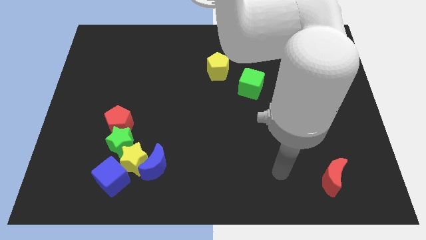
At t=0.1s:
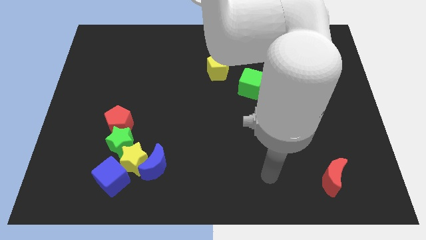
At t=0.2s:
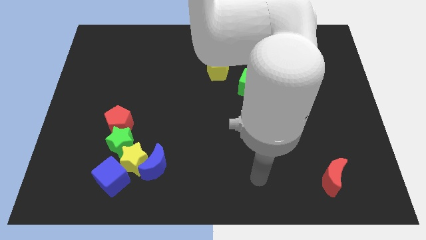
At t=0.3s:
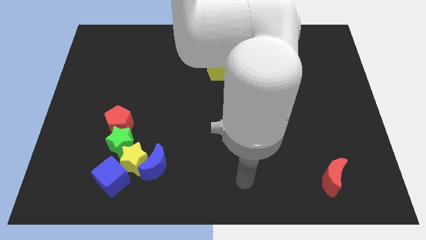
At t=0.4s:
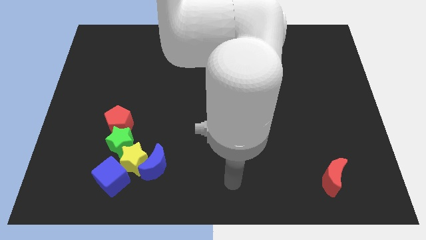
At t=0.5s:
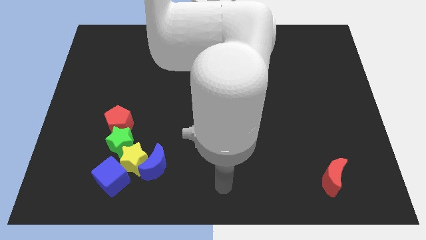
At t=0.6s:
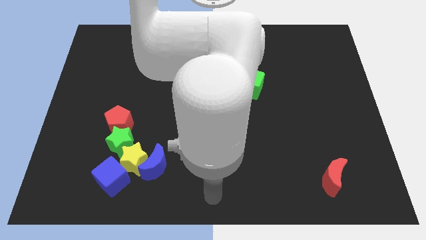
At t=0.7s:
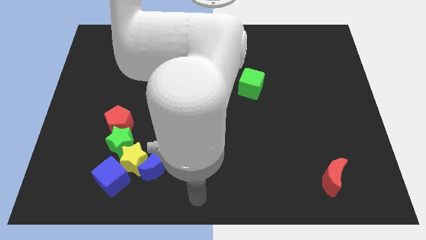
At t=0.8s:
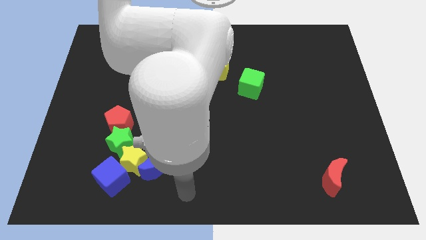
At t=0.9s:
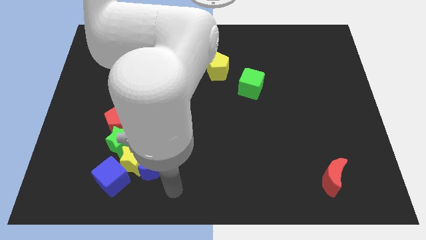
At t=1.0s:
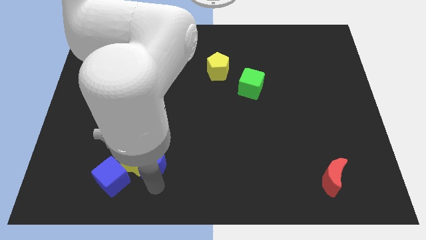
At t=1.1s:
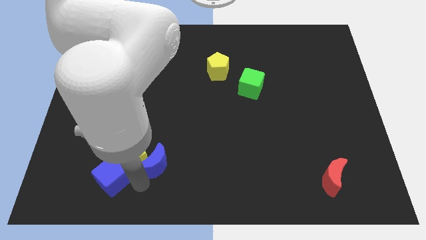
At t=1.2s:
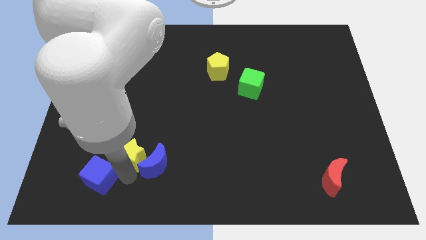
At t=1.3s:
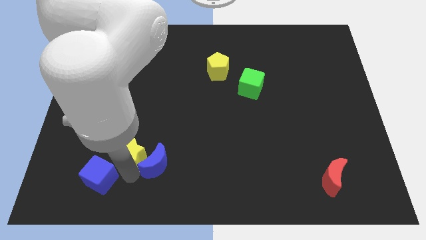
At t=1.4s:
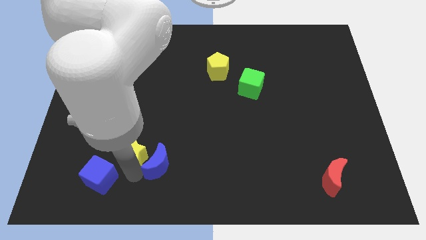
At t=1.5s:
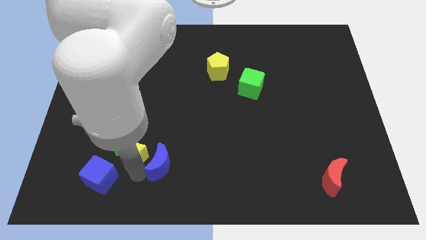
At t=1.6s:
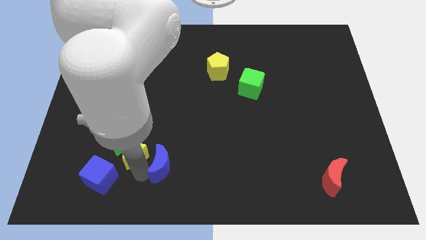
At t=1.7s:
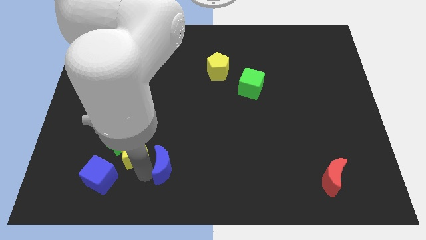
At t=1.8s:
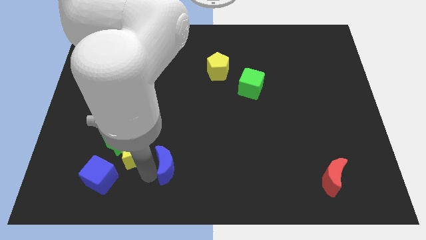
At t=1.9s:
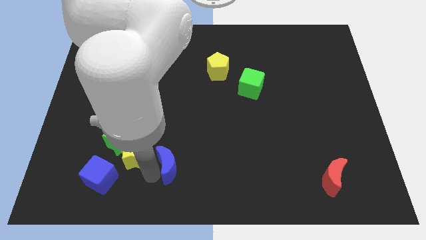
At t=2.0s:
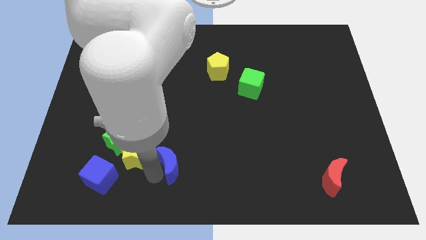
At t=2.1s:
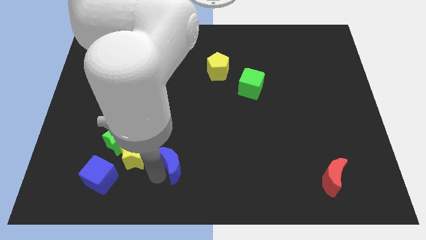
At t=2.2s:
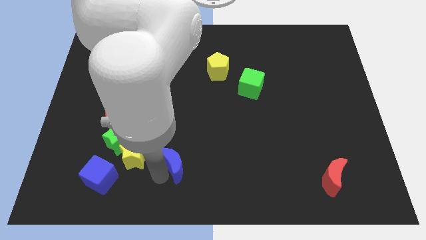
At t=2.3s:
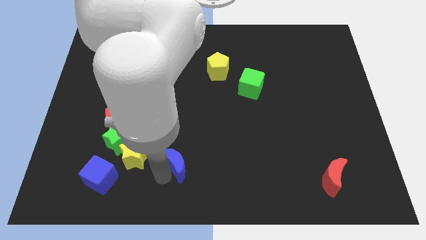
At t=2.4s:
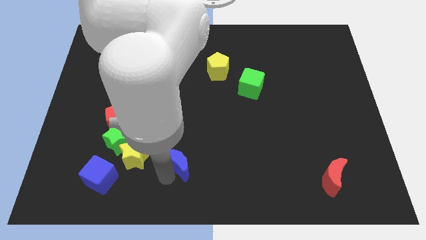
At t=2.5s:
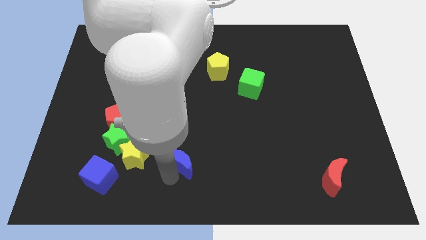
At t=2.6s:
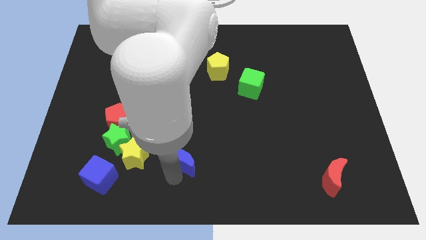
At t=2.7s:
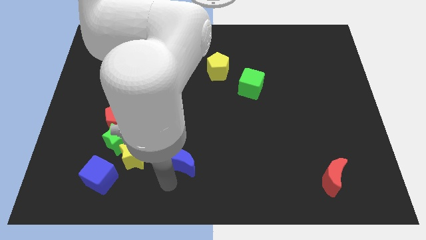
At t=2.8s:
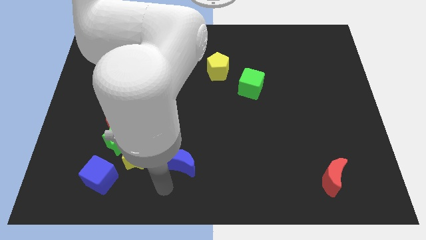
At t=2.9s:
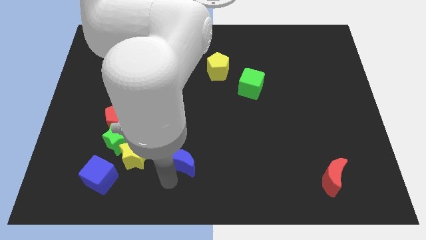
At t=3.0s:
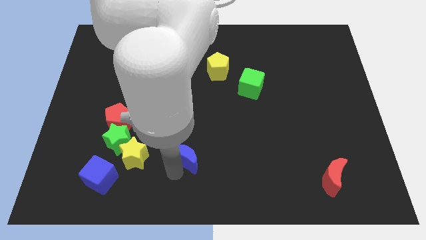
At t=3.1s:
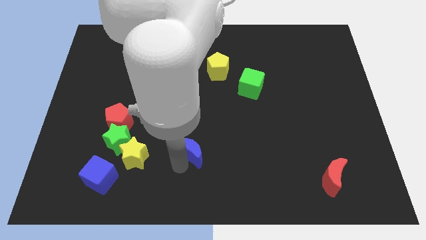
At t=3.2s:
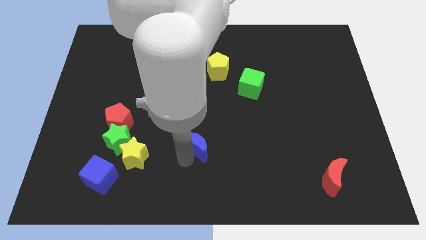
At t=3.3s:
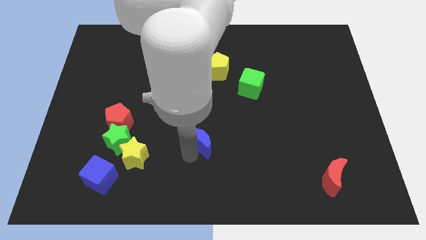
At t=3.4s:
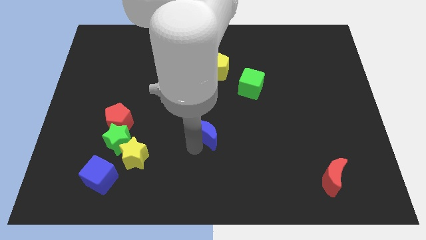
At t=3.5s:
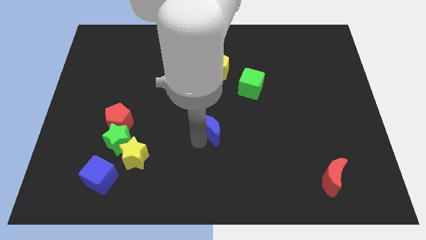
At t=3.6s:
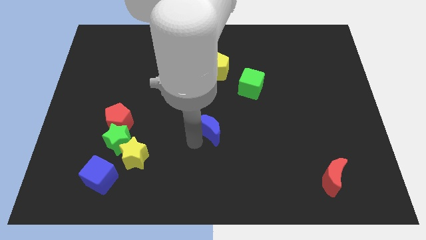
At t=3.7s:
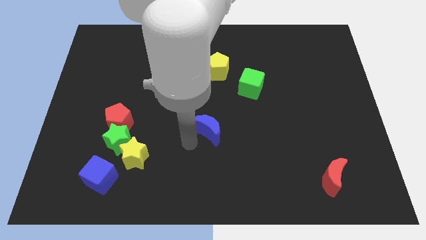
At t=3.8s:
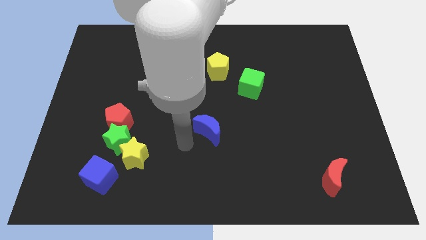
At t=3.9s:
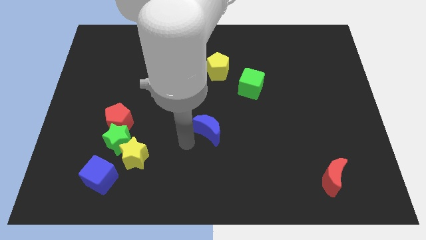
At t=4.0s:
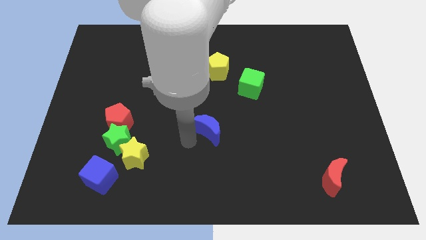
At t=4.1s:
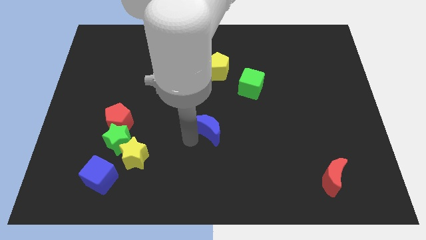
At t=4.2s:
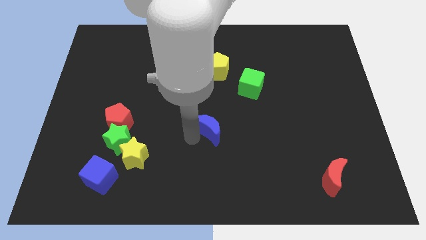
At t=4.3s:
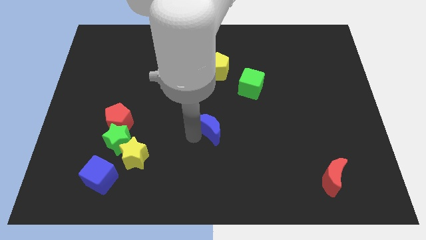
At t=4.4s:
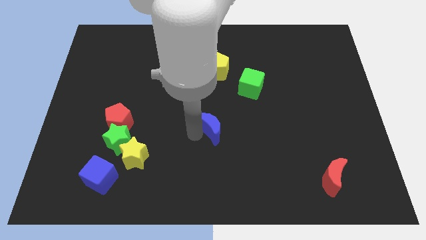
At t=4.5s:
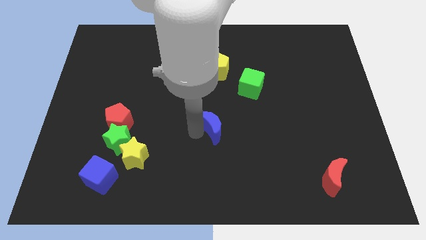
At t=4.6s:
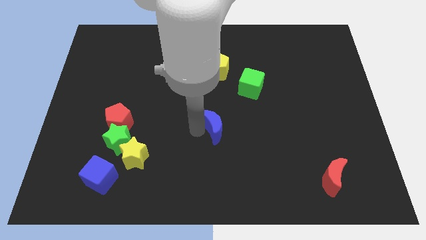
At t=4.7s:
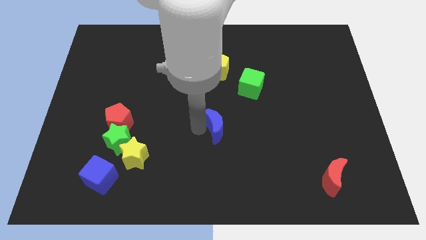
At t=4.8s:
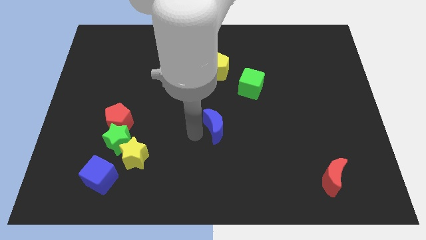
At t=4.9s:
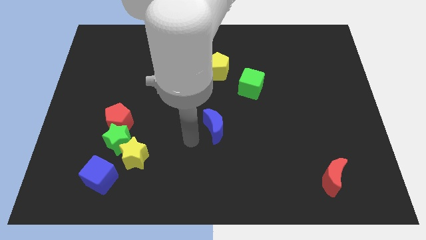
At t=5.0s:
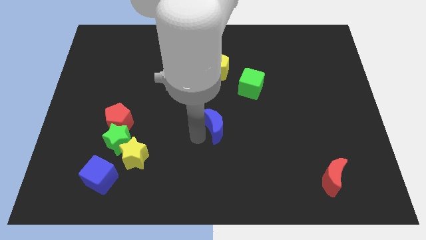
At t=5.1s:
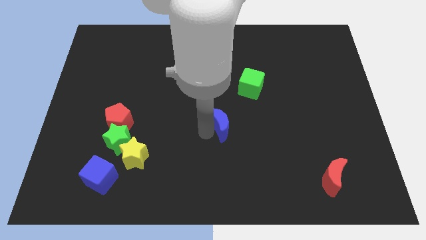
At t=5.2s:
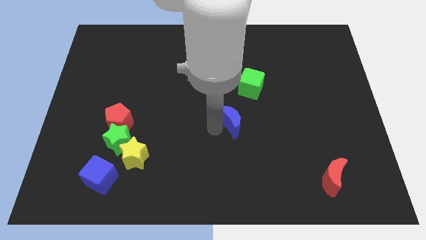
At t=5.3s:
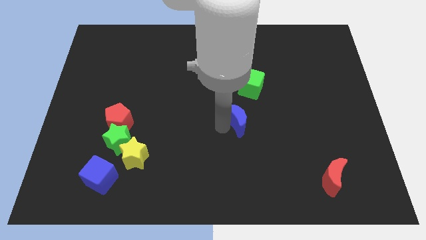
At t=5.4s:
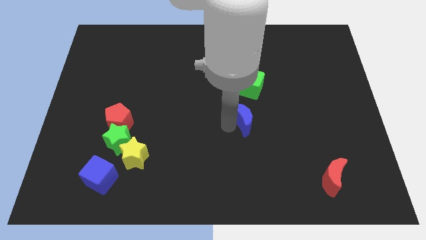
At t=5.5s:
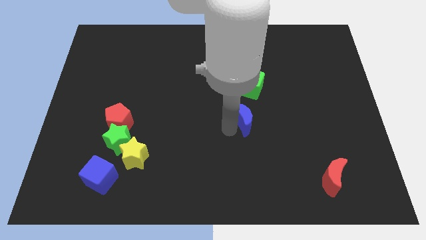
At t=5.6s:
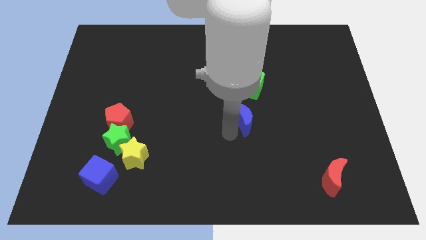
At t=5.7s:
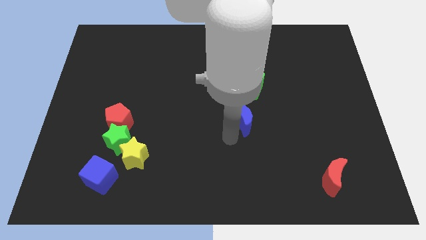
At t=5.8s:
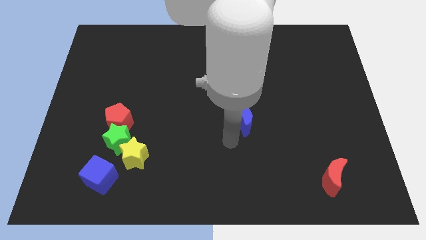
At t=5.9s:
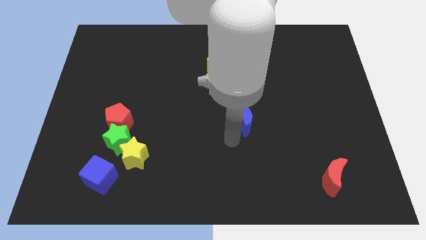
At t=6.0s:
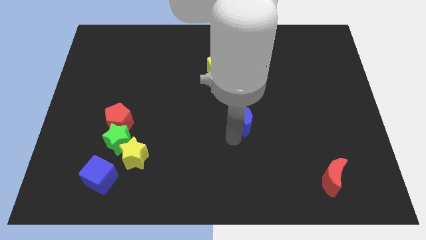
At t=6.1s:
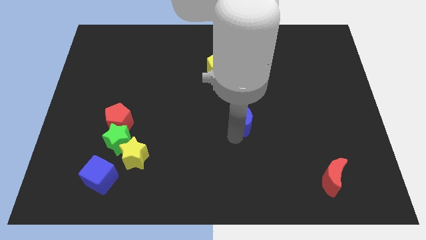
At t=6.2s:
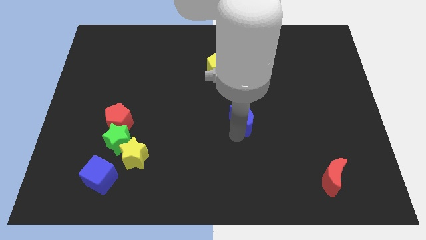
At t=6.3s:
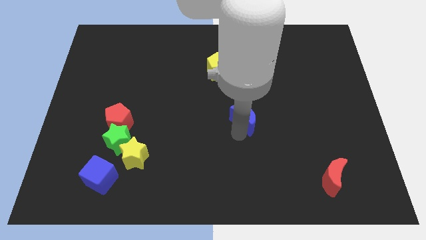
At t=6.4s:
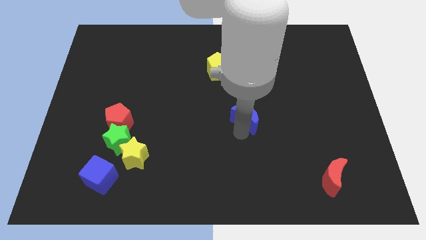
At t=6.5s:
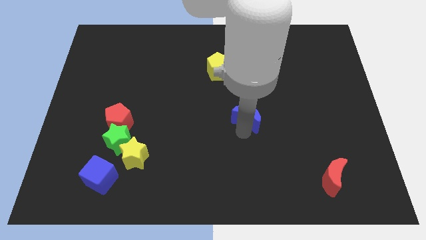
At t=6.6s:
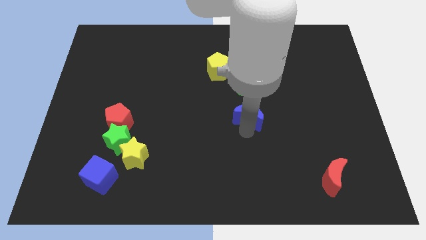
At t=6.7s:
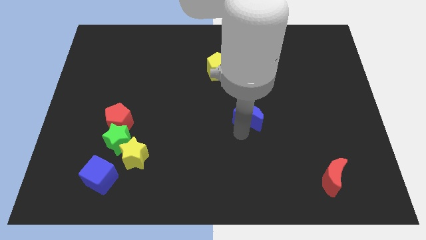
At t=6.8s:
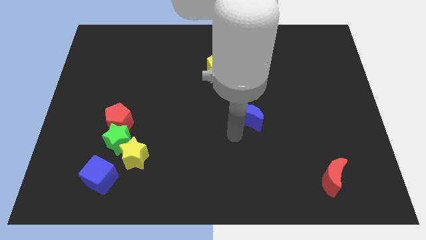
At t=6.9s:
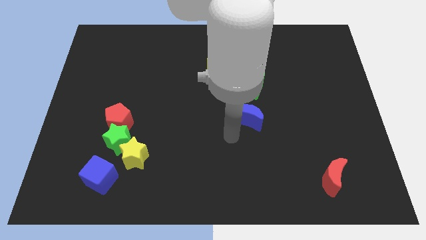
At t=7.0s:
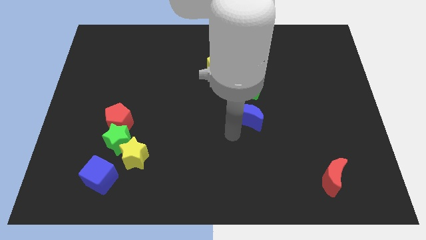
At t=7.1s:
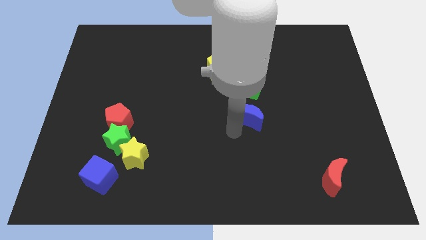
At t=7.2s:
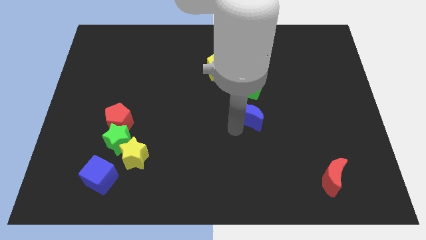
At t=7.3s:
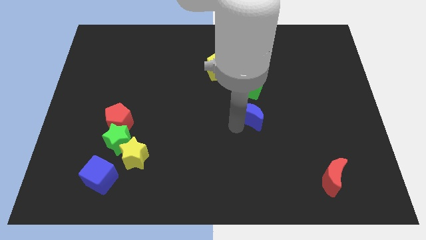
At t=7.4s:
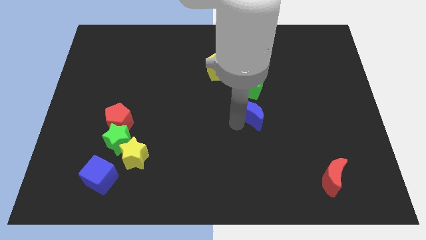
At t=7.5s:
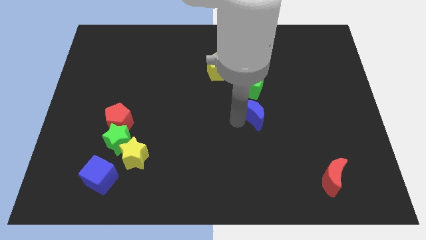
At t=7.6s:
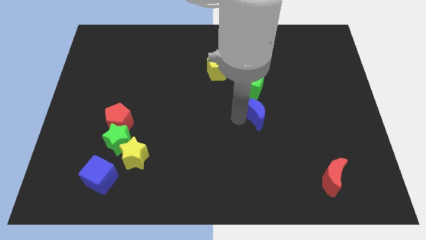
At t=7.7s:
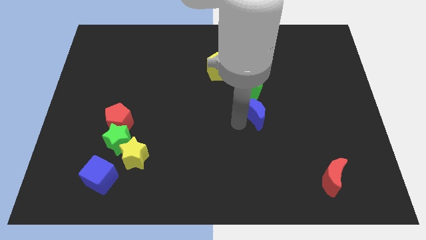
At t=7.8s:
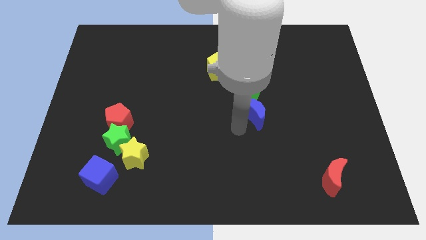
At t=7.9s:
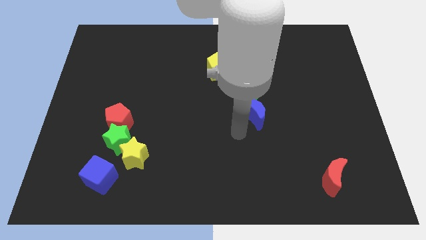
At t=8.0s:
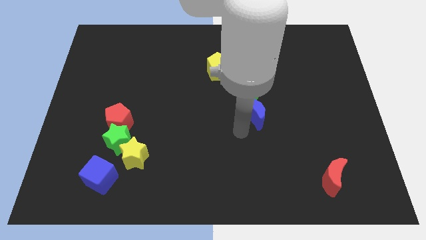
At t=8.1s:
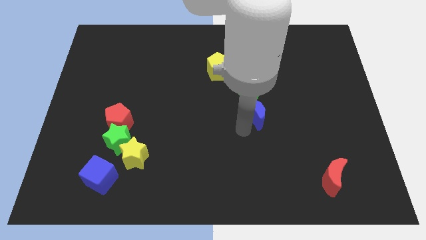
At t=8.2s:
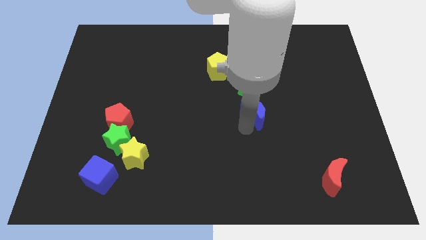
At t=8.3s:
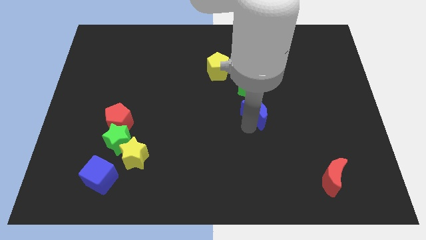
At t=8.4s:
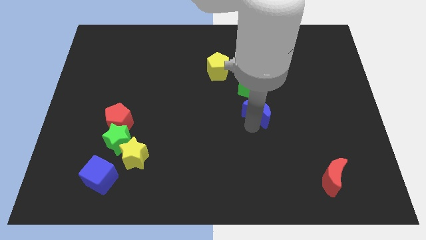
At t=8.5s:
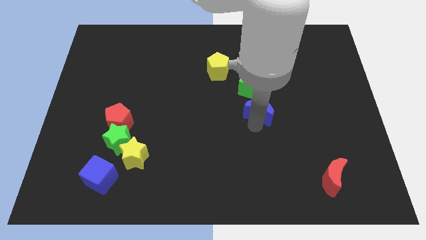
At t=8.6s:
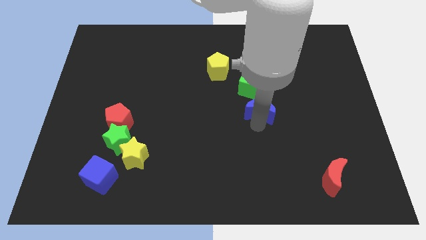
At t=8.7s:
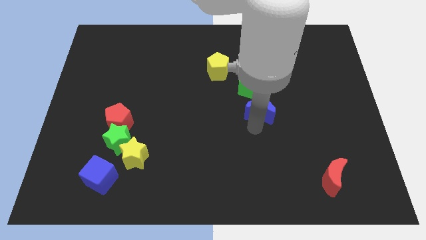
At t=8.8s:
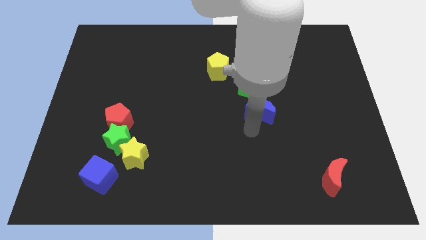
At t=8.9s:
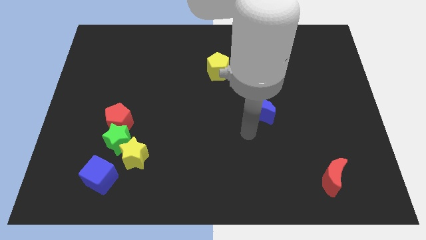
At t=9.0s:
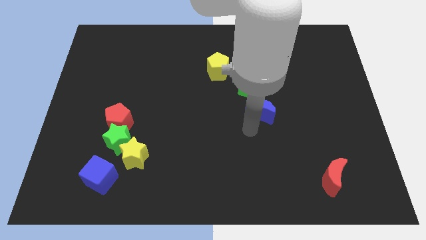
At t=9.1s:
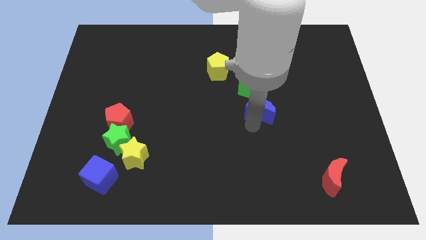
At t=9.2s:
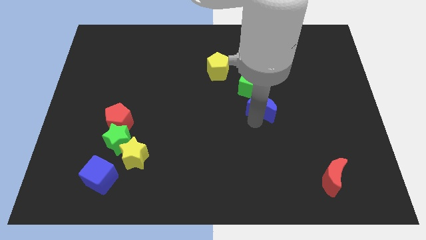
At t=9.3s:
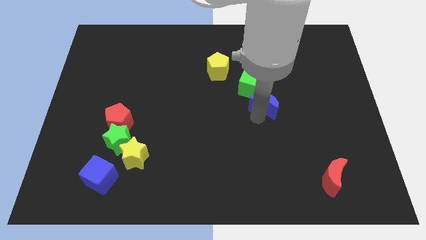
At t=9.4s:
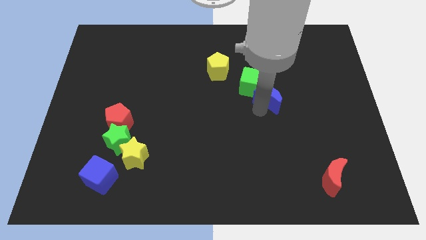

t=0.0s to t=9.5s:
push the blue moon just right of the green cube
